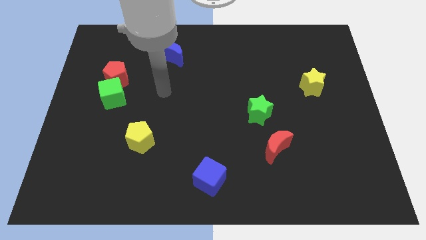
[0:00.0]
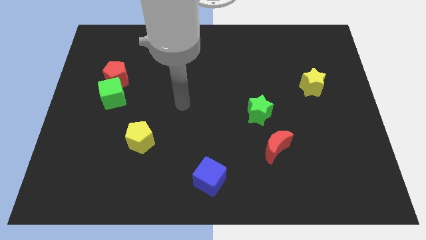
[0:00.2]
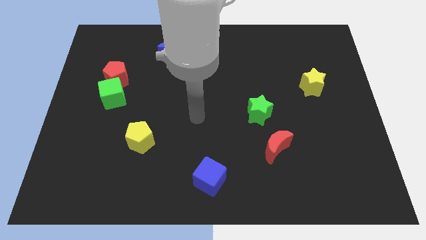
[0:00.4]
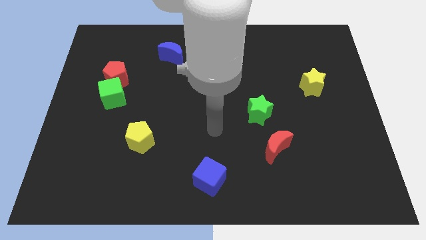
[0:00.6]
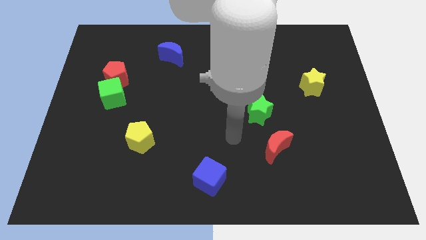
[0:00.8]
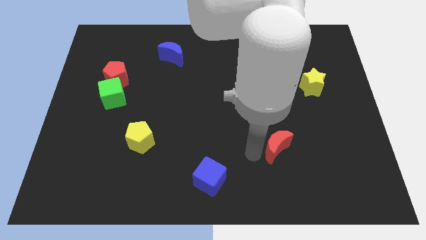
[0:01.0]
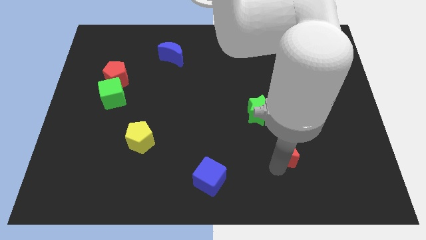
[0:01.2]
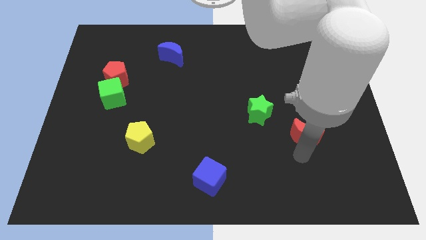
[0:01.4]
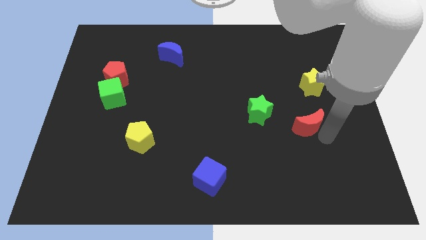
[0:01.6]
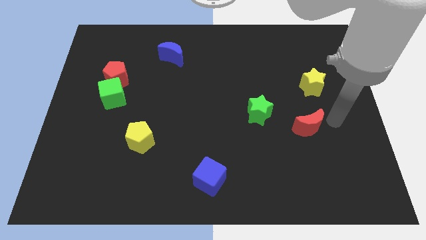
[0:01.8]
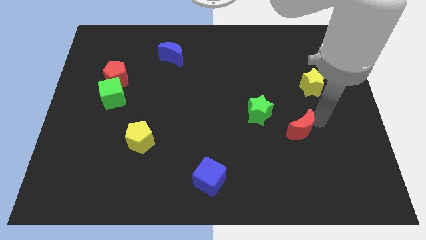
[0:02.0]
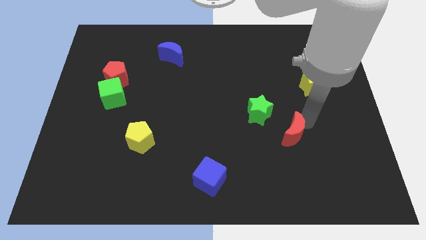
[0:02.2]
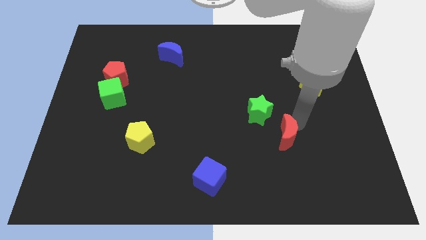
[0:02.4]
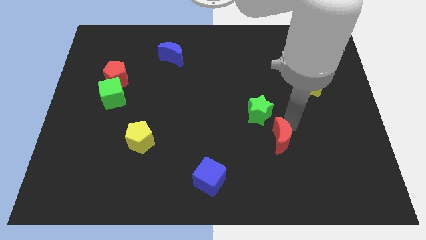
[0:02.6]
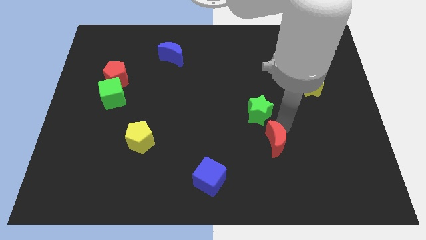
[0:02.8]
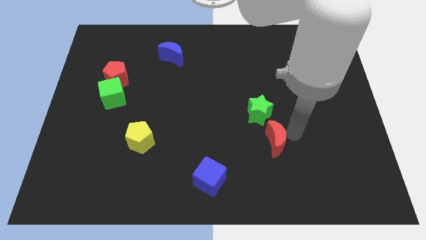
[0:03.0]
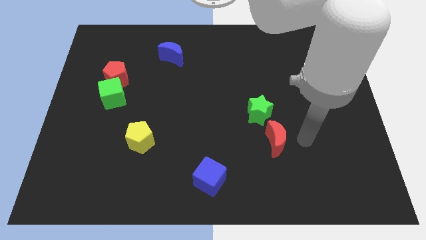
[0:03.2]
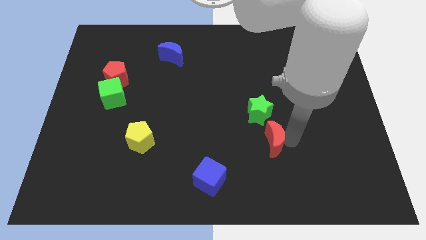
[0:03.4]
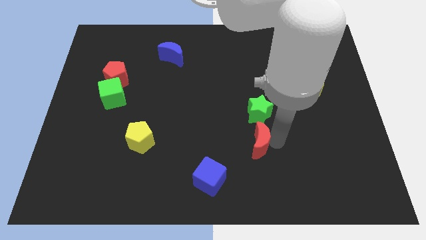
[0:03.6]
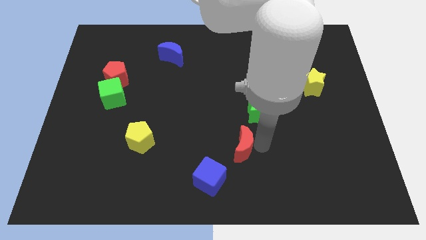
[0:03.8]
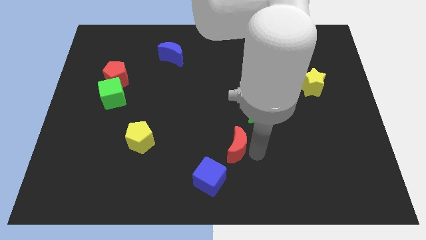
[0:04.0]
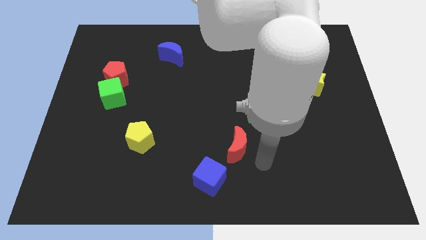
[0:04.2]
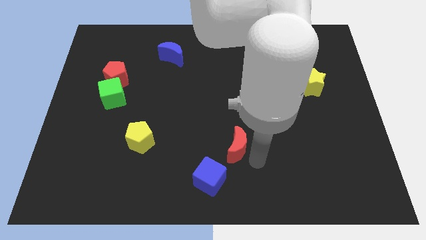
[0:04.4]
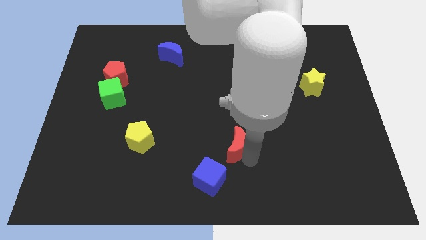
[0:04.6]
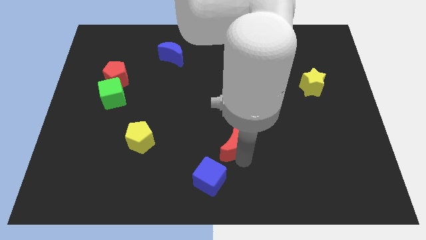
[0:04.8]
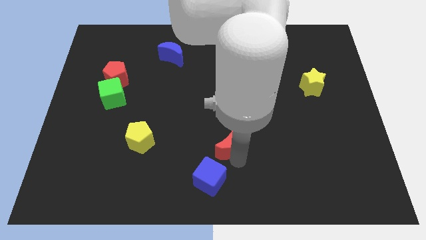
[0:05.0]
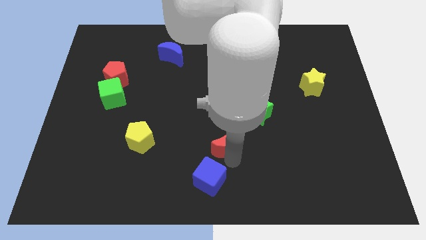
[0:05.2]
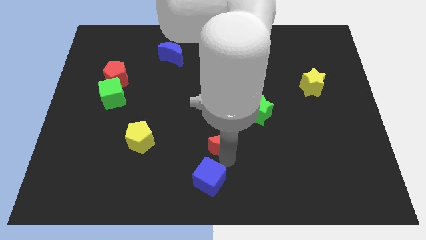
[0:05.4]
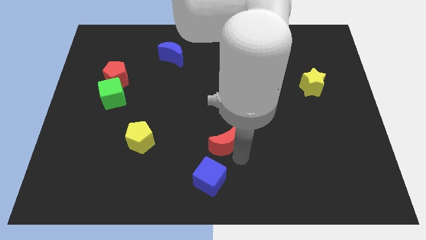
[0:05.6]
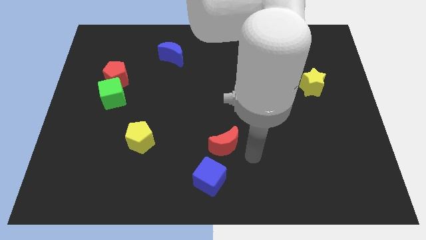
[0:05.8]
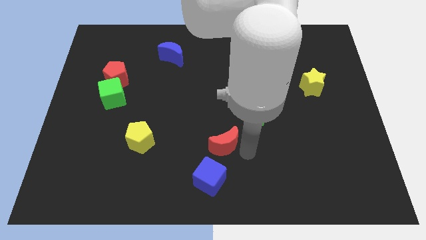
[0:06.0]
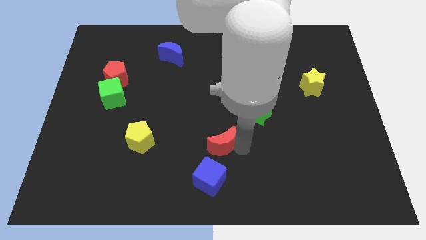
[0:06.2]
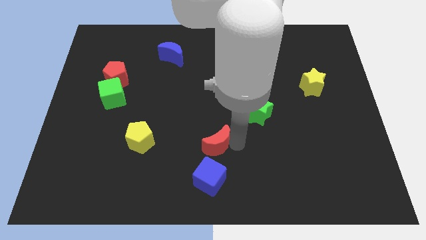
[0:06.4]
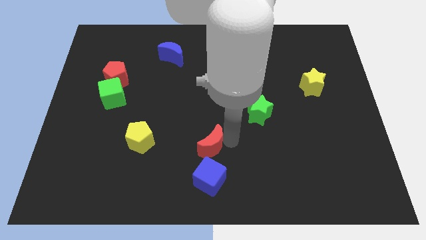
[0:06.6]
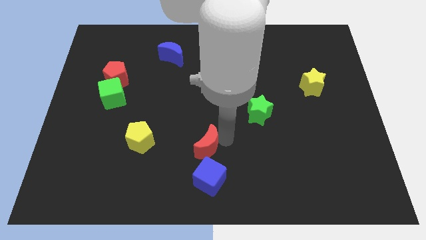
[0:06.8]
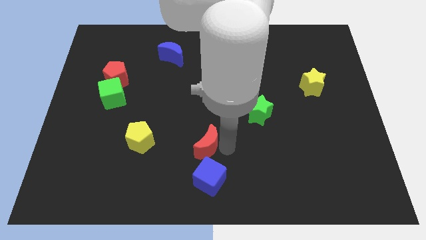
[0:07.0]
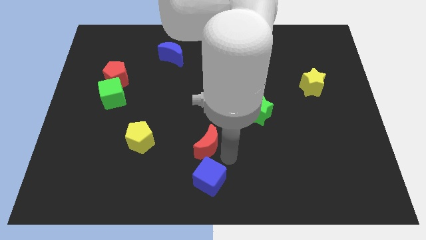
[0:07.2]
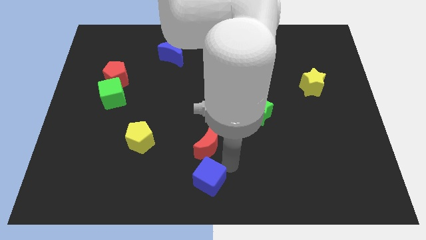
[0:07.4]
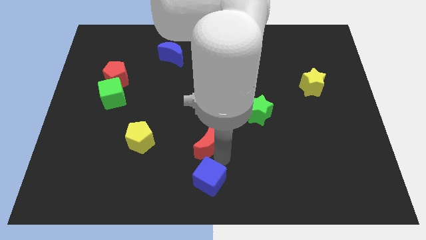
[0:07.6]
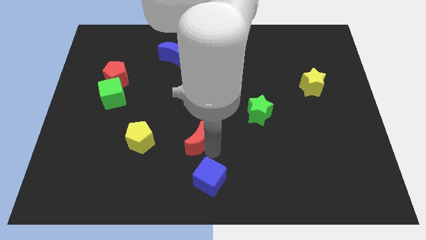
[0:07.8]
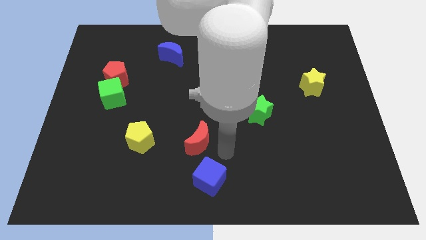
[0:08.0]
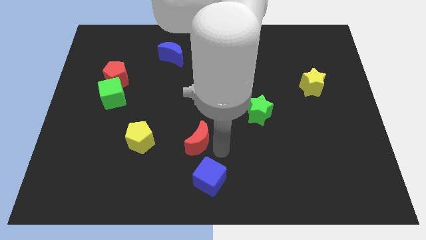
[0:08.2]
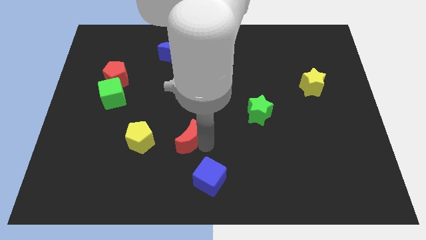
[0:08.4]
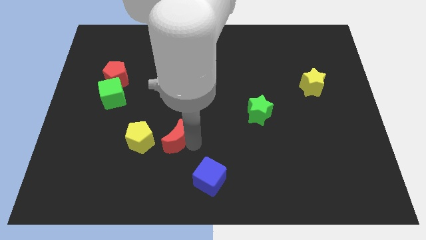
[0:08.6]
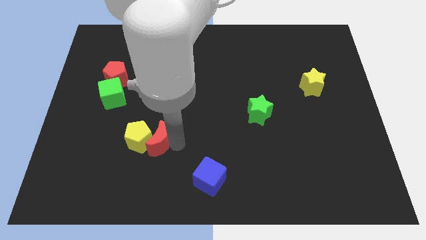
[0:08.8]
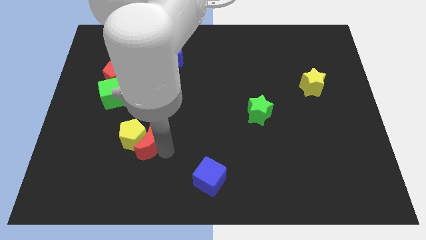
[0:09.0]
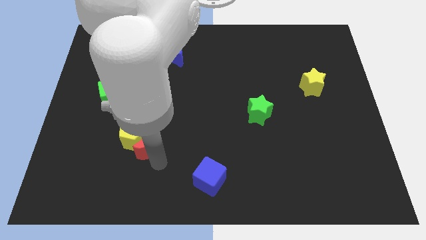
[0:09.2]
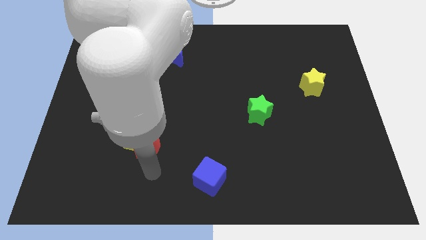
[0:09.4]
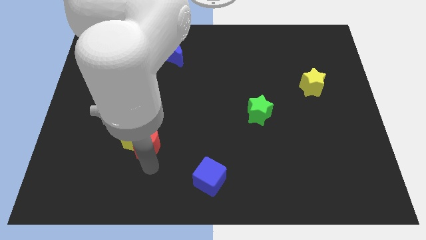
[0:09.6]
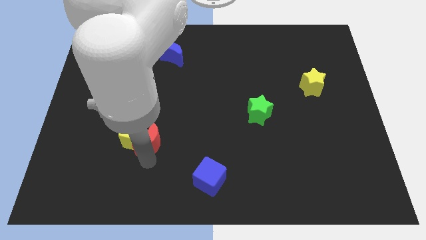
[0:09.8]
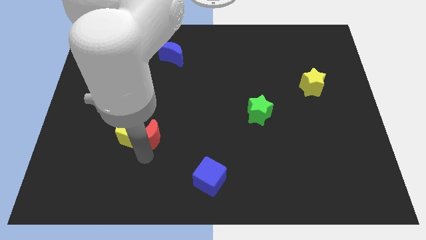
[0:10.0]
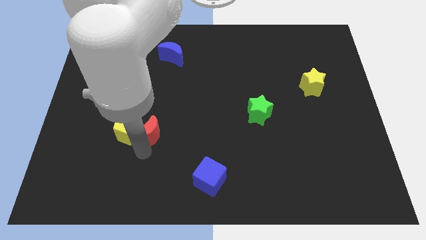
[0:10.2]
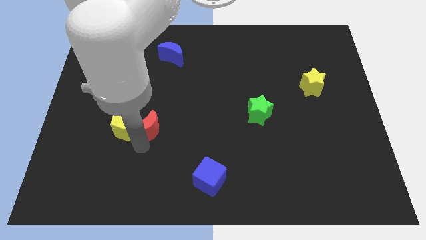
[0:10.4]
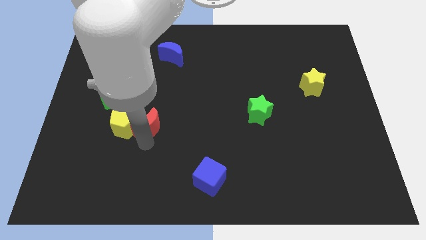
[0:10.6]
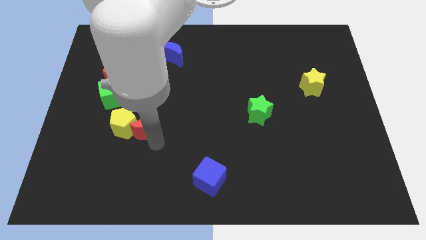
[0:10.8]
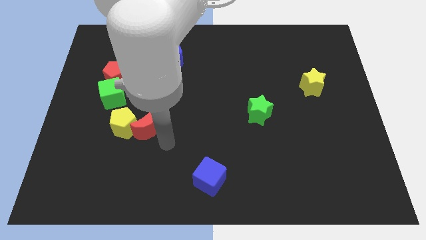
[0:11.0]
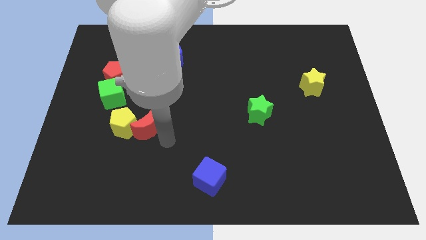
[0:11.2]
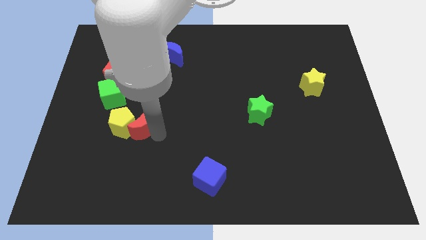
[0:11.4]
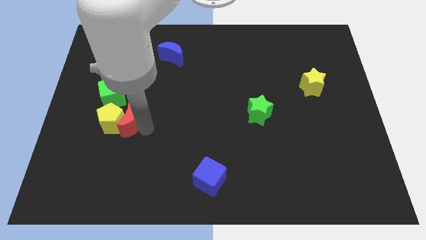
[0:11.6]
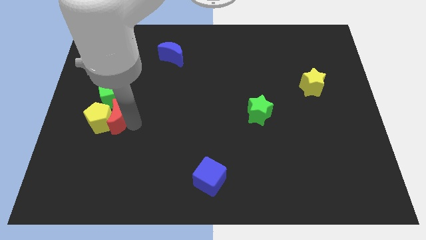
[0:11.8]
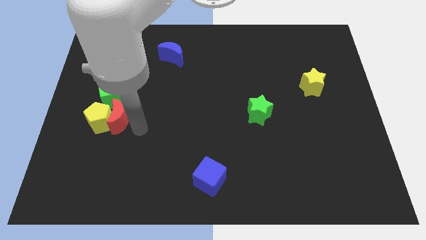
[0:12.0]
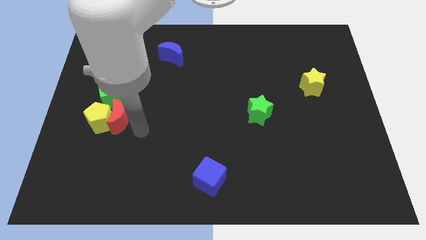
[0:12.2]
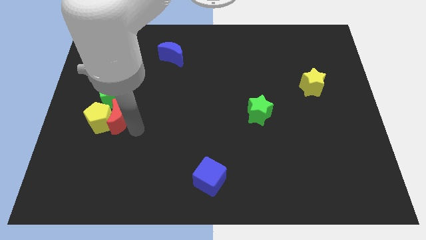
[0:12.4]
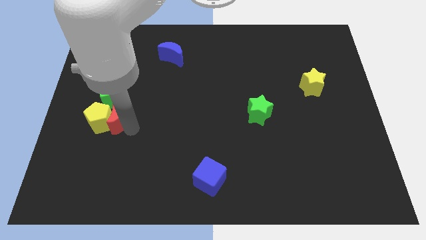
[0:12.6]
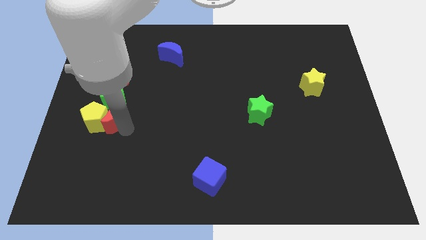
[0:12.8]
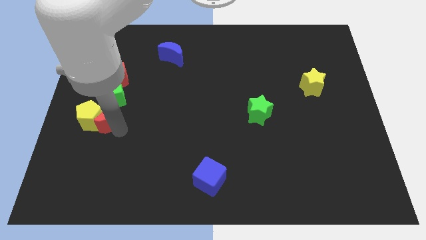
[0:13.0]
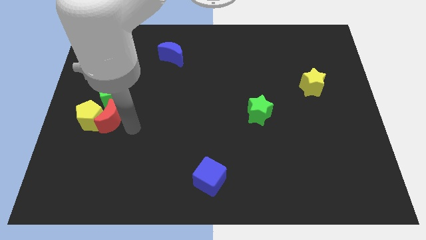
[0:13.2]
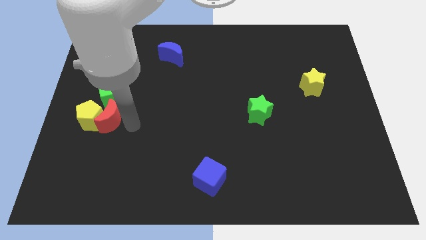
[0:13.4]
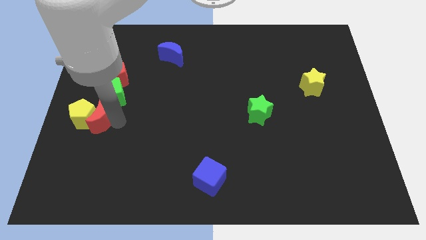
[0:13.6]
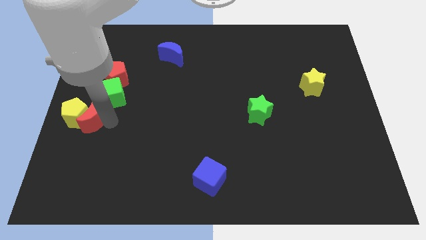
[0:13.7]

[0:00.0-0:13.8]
push the red moon to the center left
